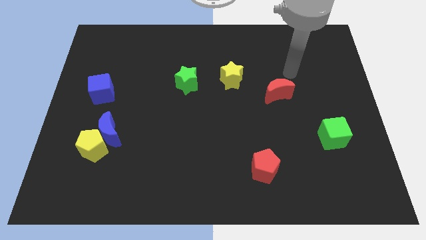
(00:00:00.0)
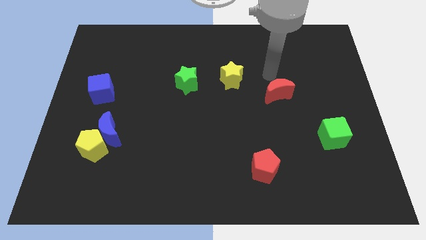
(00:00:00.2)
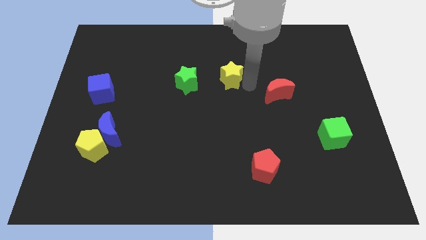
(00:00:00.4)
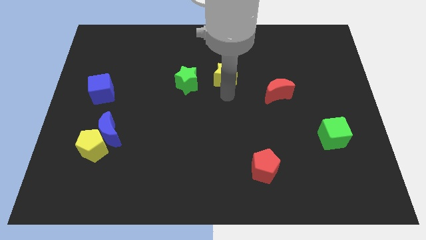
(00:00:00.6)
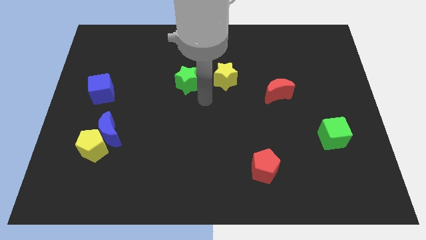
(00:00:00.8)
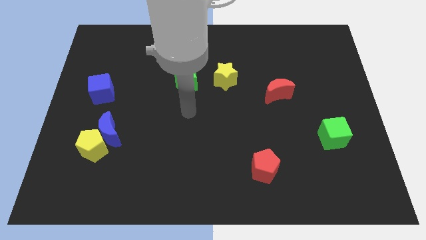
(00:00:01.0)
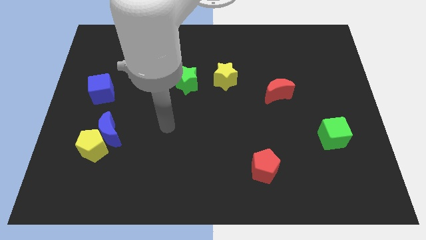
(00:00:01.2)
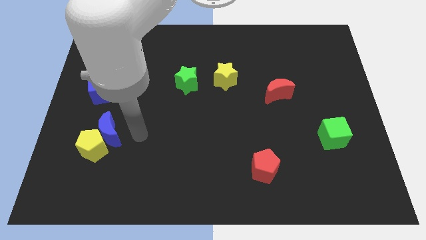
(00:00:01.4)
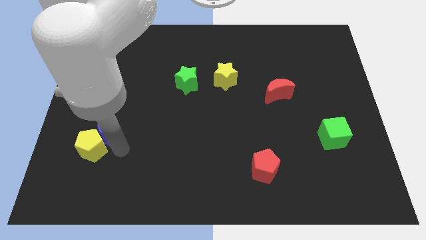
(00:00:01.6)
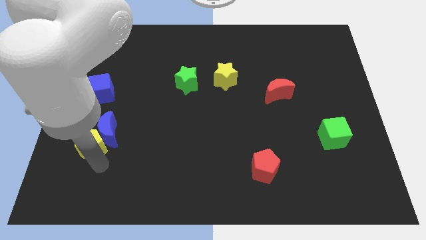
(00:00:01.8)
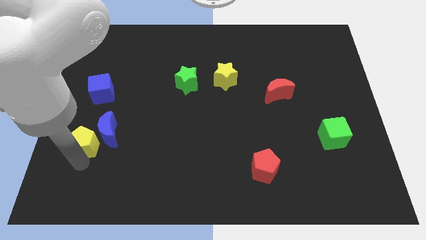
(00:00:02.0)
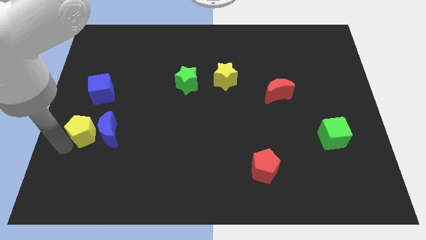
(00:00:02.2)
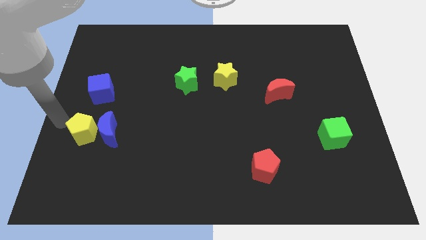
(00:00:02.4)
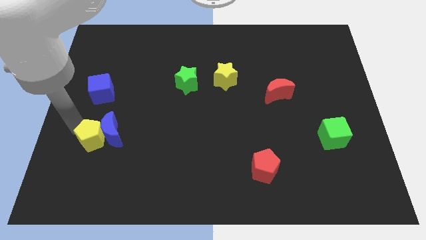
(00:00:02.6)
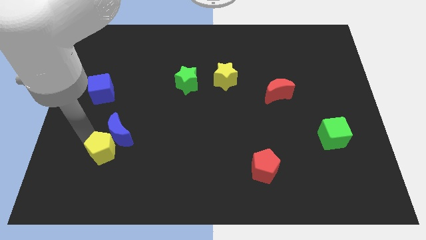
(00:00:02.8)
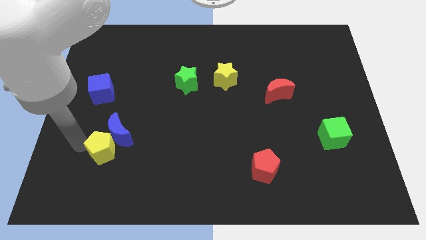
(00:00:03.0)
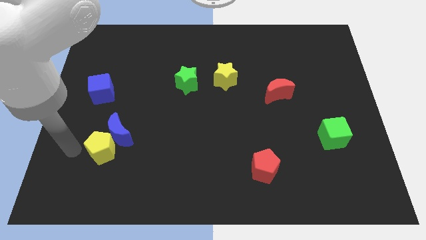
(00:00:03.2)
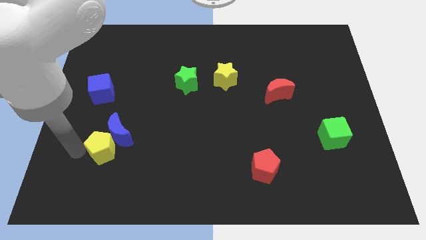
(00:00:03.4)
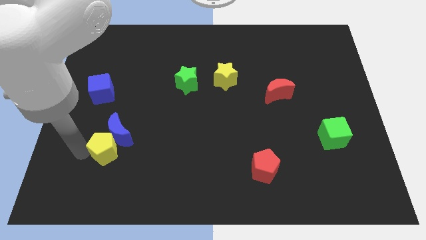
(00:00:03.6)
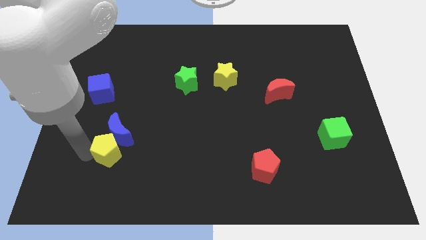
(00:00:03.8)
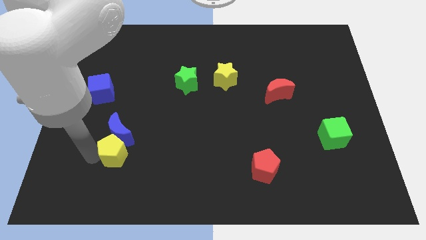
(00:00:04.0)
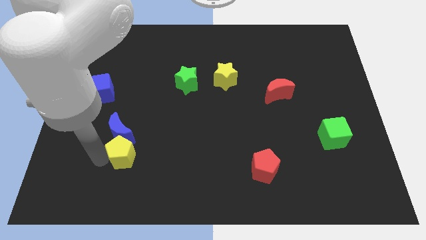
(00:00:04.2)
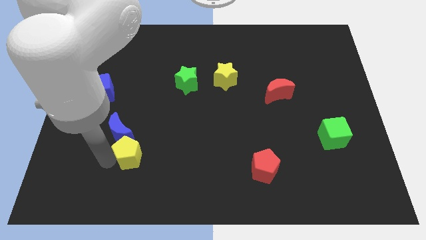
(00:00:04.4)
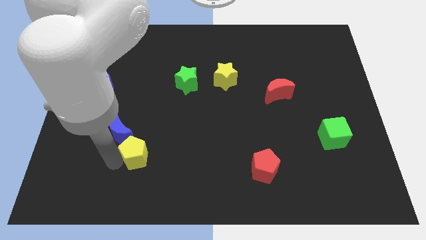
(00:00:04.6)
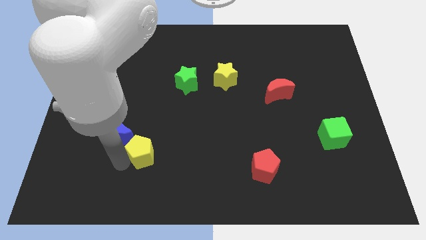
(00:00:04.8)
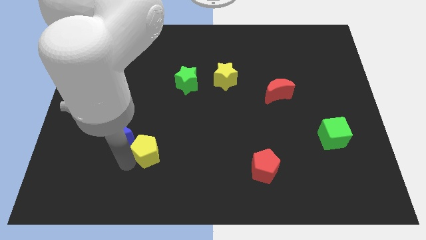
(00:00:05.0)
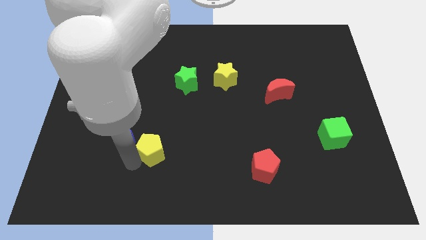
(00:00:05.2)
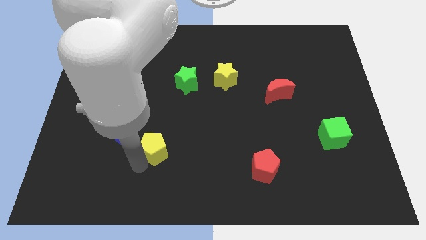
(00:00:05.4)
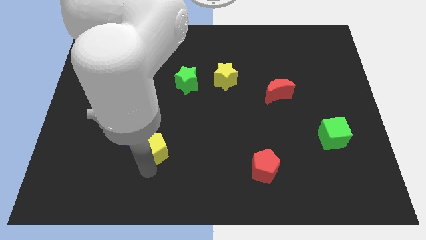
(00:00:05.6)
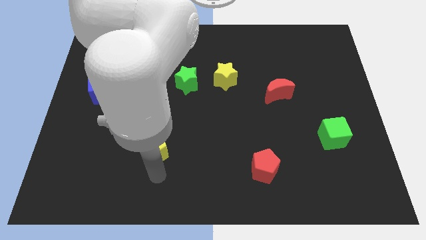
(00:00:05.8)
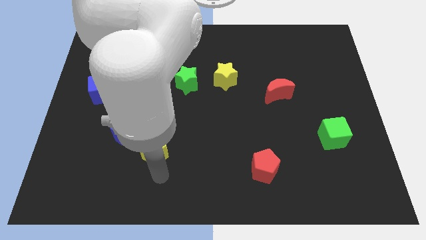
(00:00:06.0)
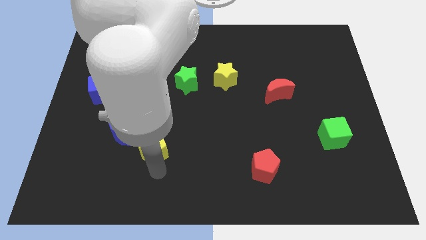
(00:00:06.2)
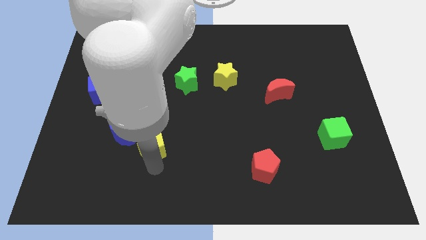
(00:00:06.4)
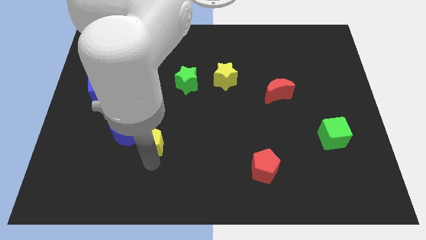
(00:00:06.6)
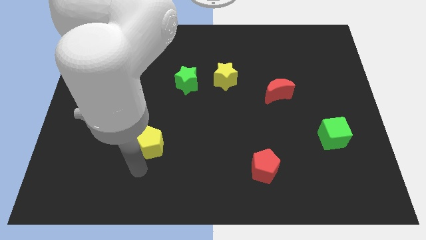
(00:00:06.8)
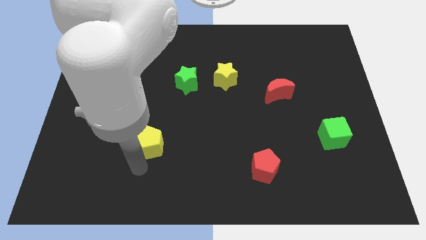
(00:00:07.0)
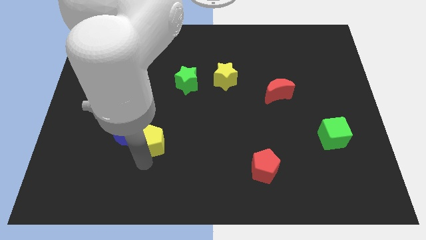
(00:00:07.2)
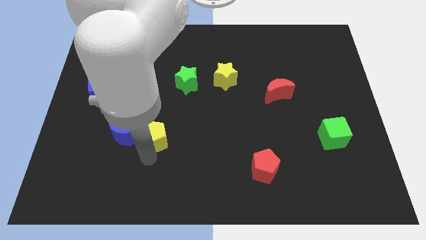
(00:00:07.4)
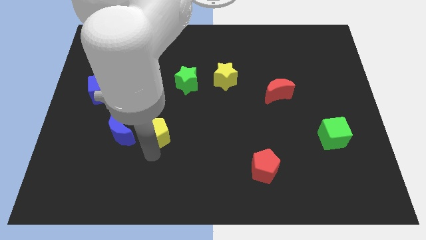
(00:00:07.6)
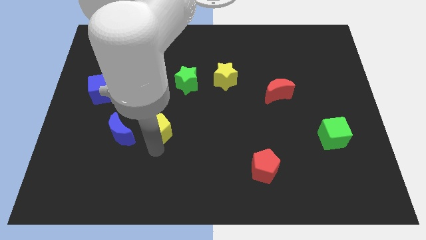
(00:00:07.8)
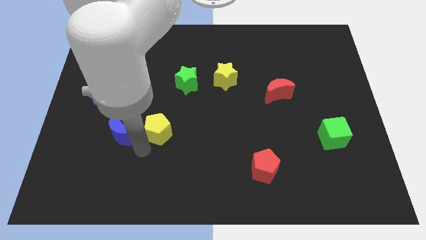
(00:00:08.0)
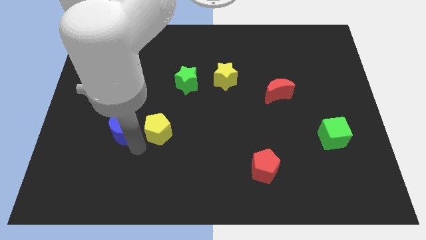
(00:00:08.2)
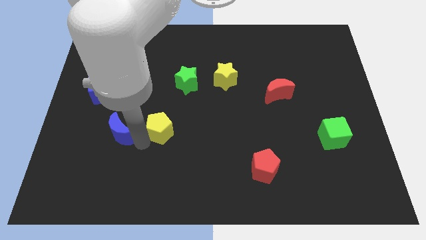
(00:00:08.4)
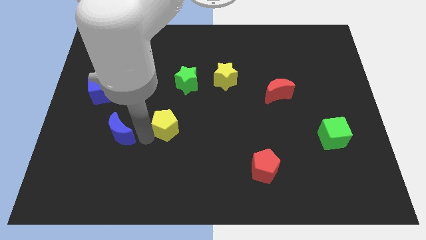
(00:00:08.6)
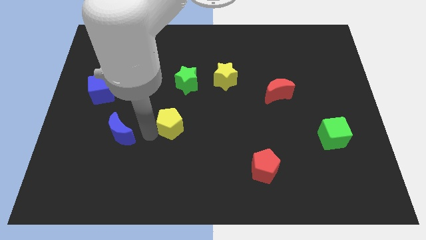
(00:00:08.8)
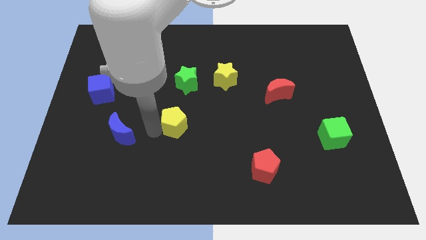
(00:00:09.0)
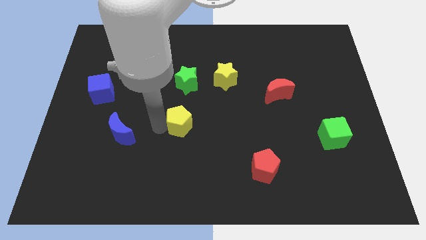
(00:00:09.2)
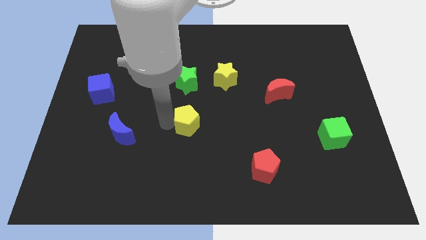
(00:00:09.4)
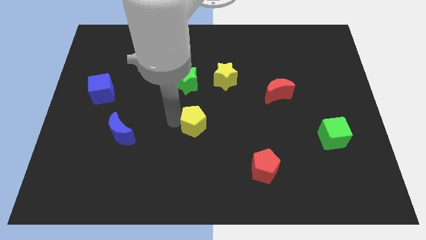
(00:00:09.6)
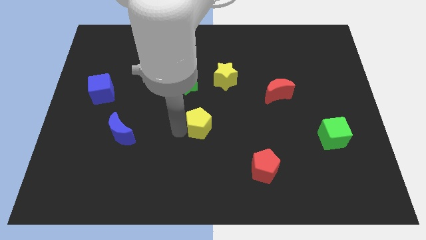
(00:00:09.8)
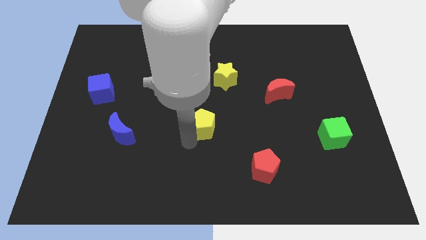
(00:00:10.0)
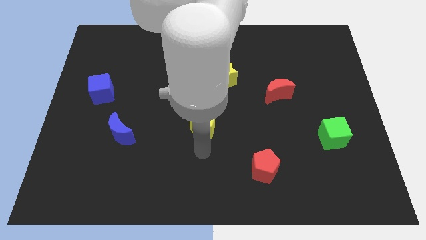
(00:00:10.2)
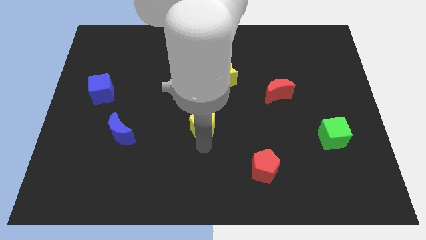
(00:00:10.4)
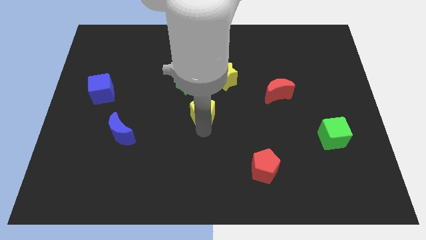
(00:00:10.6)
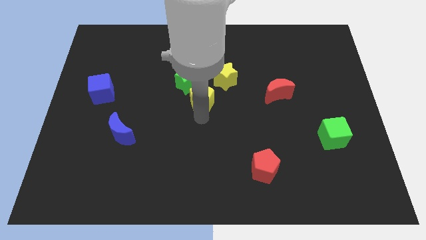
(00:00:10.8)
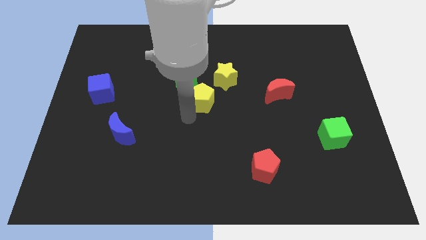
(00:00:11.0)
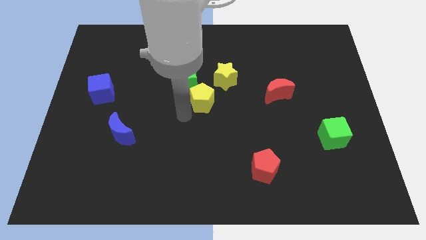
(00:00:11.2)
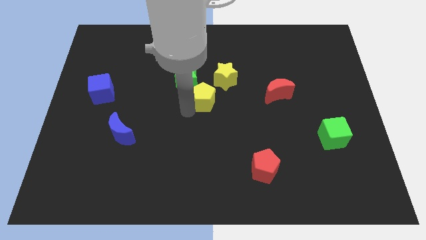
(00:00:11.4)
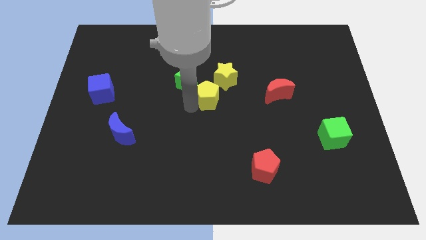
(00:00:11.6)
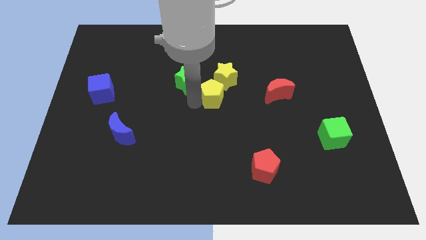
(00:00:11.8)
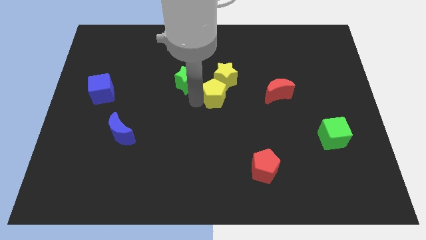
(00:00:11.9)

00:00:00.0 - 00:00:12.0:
move the yellow pentagon close to the yellow star

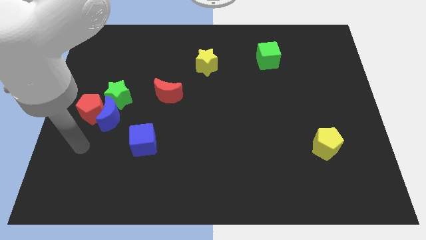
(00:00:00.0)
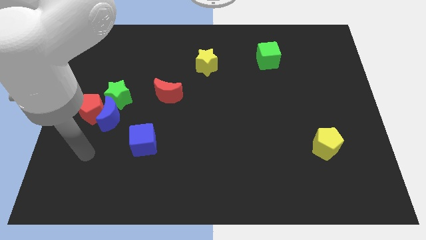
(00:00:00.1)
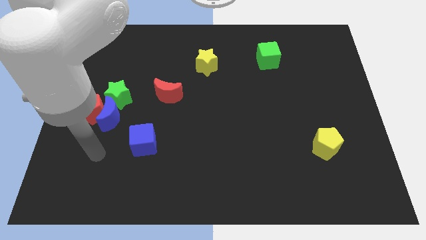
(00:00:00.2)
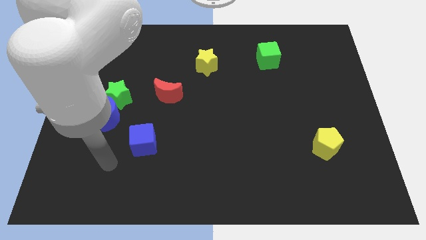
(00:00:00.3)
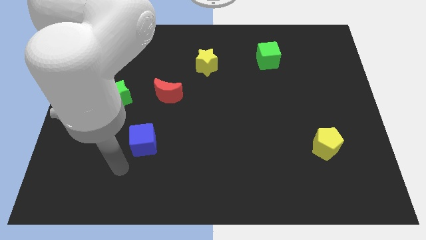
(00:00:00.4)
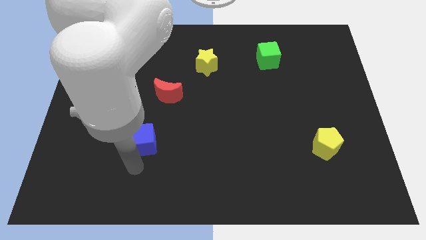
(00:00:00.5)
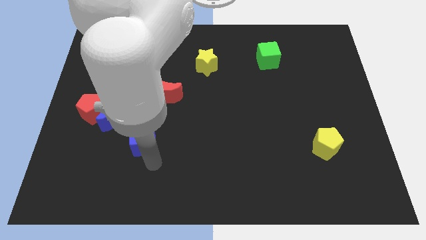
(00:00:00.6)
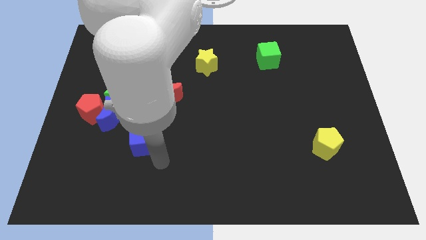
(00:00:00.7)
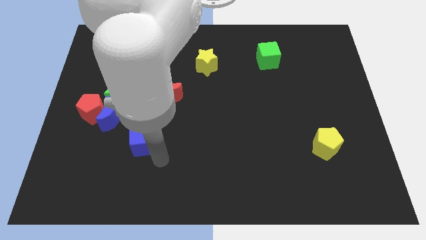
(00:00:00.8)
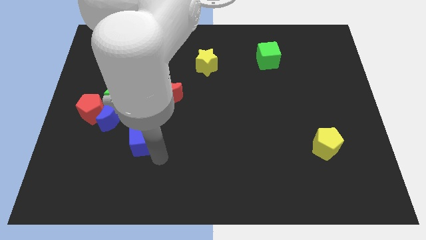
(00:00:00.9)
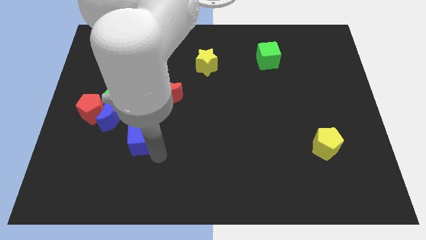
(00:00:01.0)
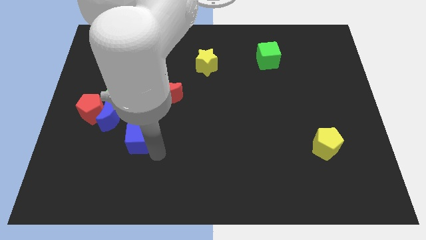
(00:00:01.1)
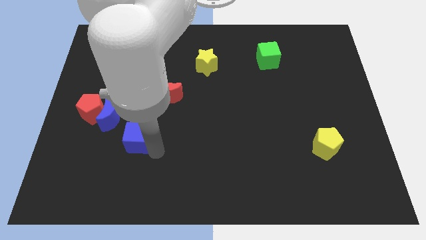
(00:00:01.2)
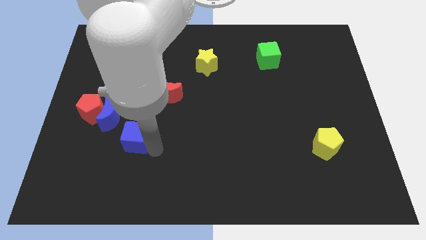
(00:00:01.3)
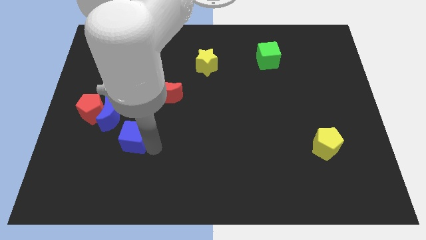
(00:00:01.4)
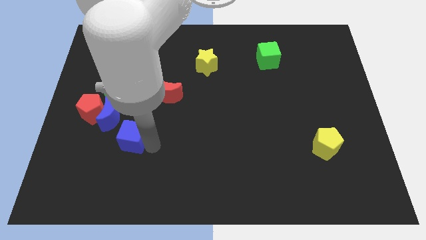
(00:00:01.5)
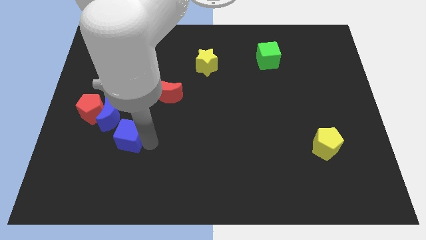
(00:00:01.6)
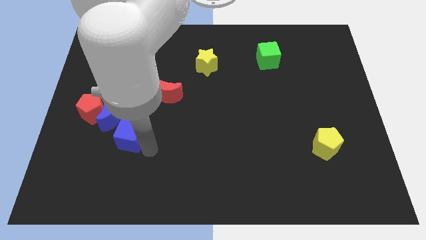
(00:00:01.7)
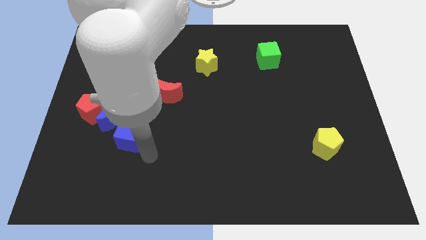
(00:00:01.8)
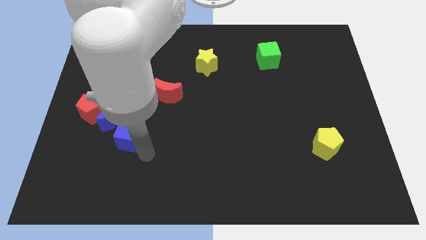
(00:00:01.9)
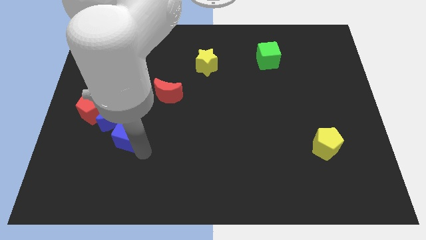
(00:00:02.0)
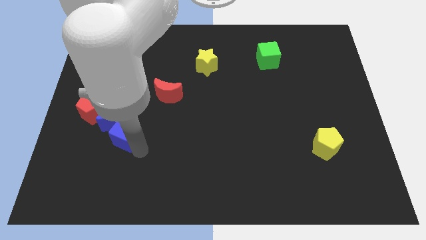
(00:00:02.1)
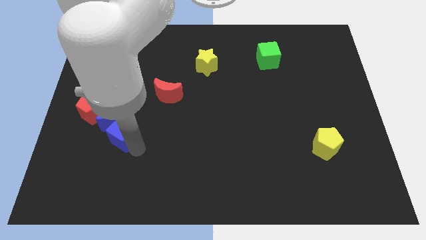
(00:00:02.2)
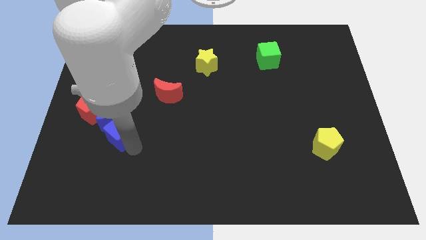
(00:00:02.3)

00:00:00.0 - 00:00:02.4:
move the blue cube towards the blue moon
